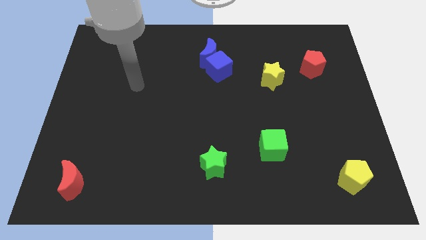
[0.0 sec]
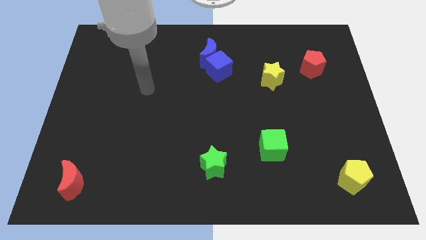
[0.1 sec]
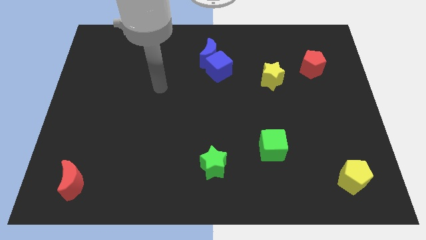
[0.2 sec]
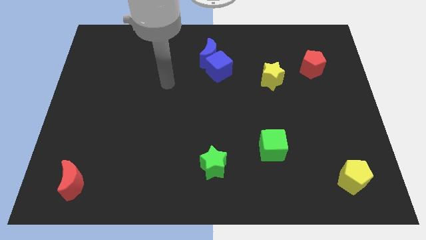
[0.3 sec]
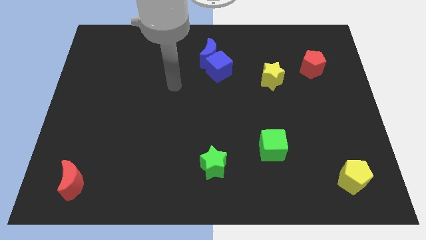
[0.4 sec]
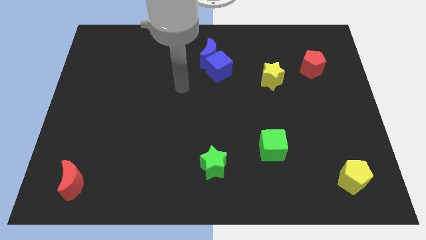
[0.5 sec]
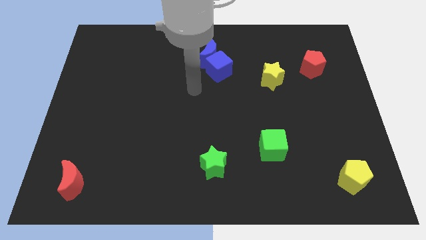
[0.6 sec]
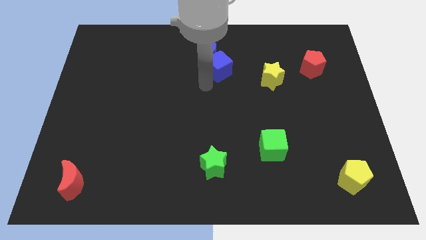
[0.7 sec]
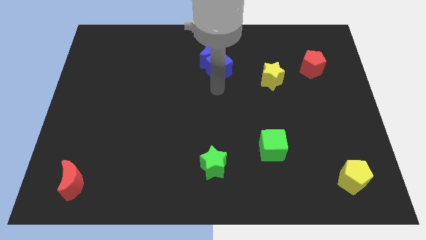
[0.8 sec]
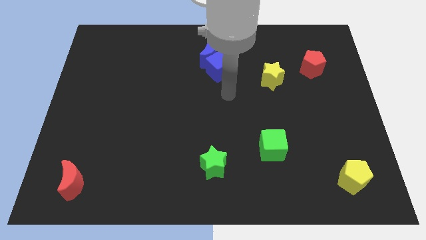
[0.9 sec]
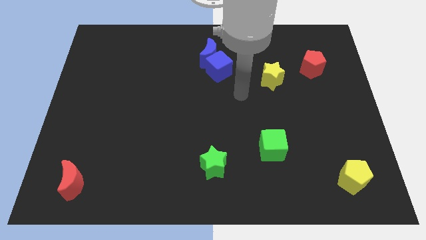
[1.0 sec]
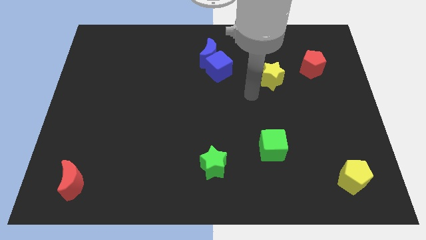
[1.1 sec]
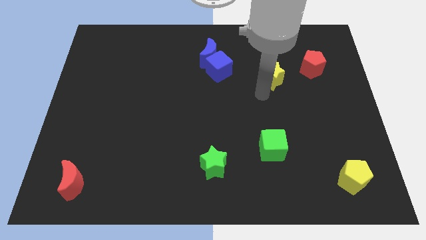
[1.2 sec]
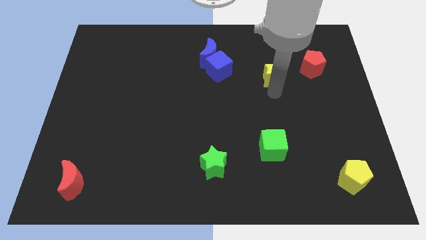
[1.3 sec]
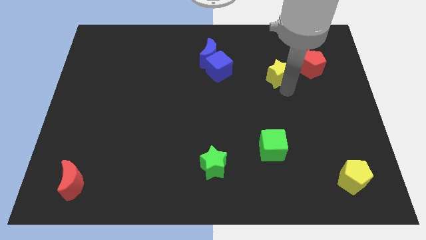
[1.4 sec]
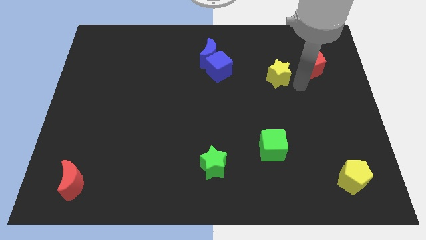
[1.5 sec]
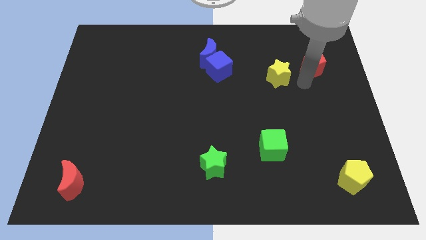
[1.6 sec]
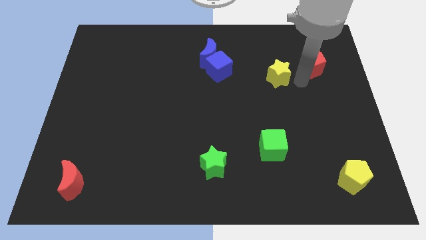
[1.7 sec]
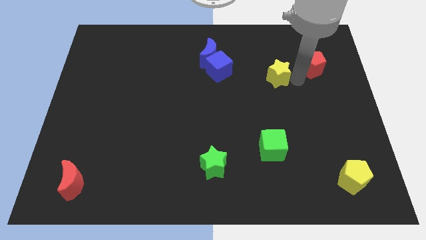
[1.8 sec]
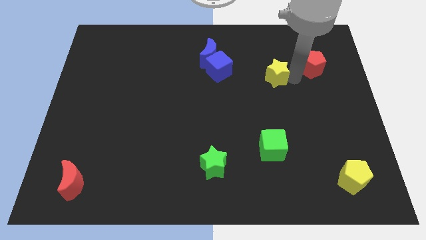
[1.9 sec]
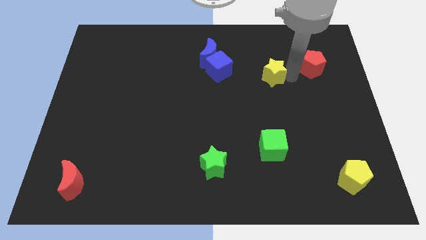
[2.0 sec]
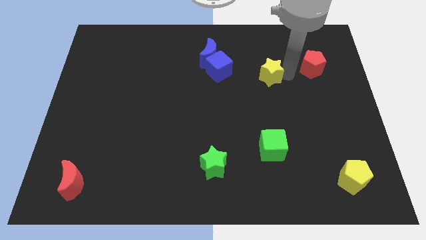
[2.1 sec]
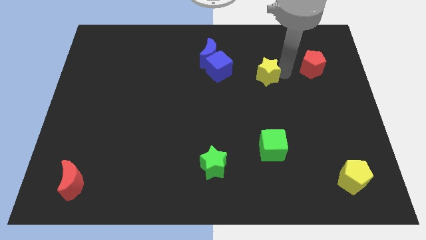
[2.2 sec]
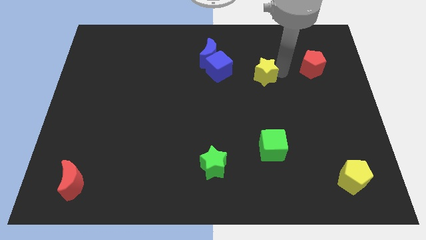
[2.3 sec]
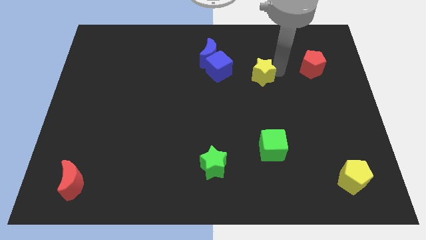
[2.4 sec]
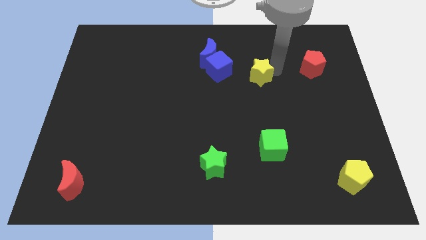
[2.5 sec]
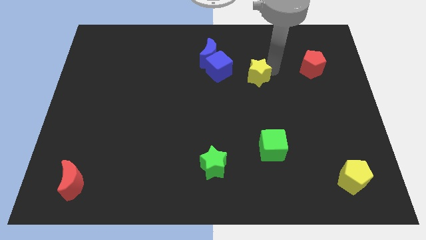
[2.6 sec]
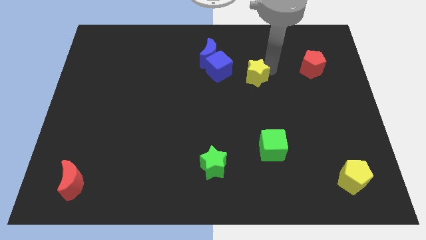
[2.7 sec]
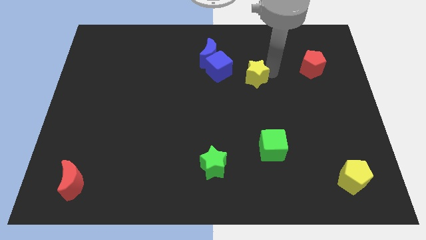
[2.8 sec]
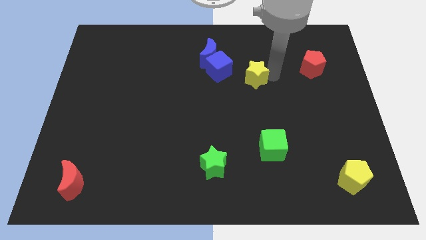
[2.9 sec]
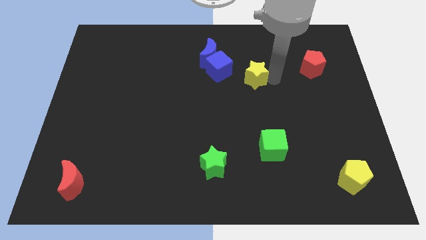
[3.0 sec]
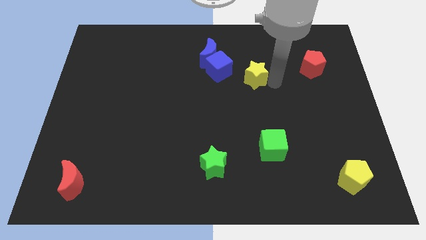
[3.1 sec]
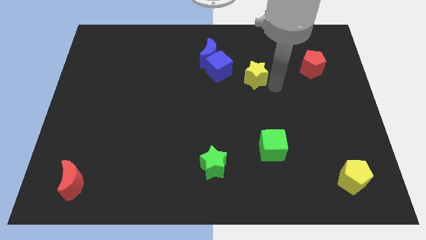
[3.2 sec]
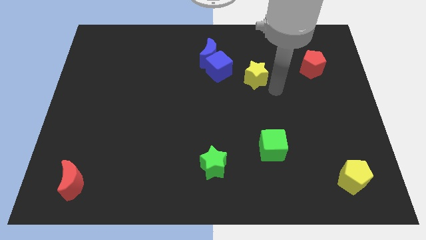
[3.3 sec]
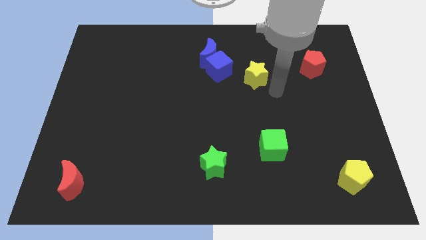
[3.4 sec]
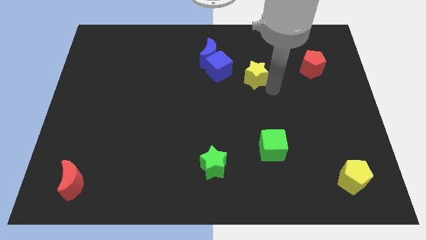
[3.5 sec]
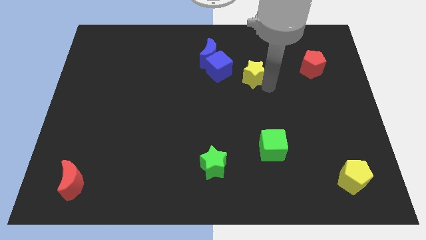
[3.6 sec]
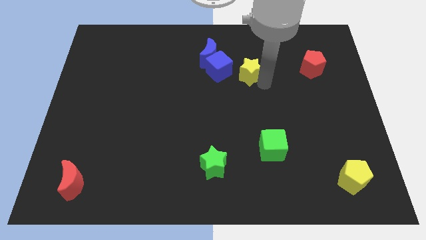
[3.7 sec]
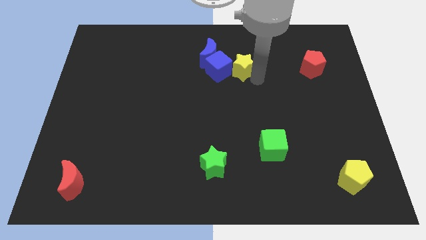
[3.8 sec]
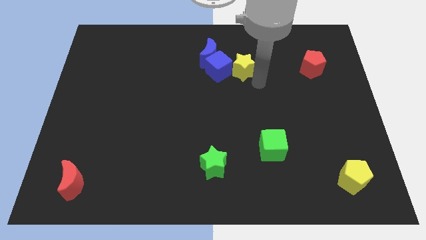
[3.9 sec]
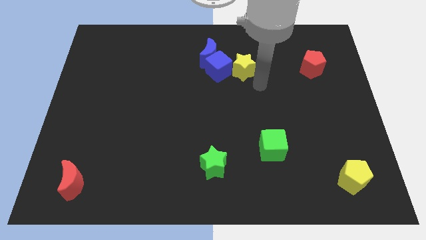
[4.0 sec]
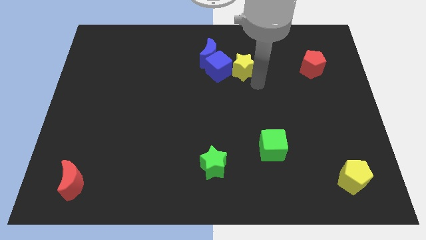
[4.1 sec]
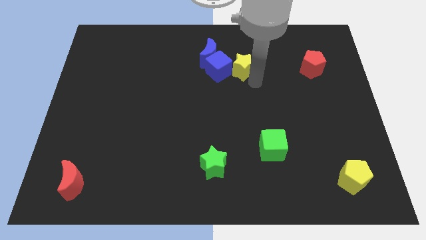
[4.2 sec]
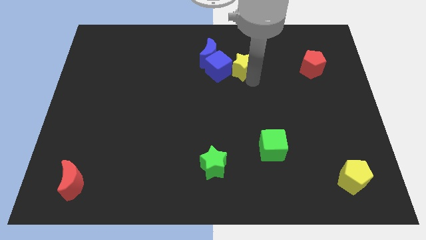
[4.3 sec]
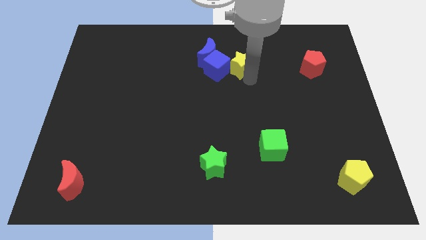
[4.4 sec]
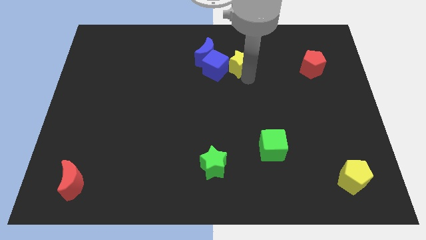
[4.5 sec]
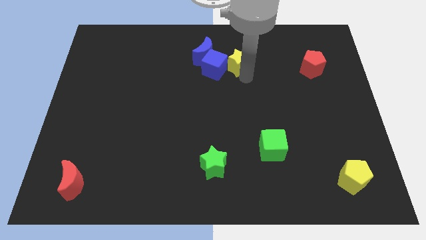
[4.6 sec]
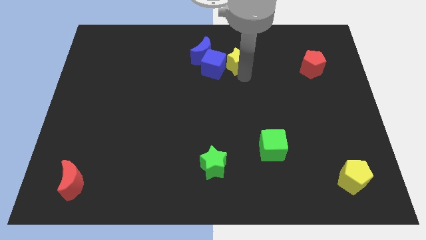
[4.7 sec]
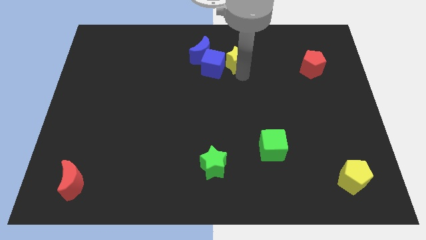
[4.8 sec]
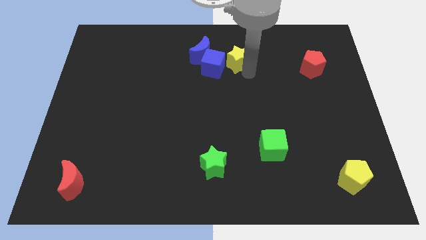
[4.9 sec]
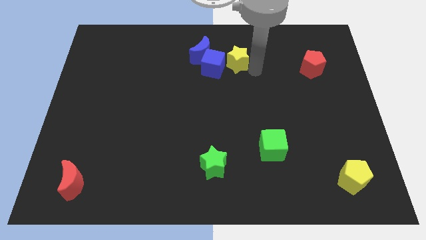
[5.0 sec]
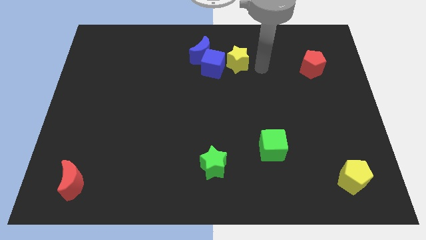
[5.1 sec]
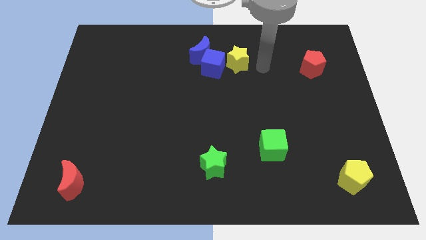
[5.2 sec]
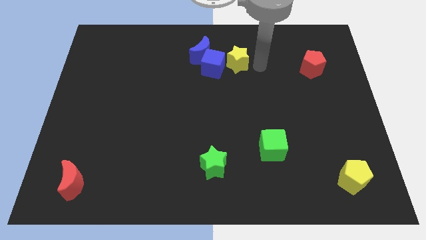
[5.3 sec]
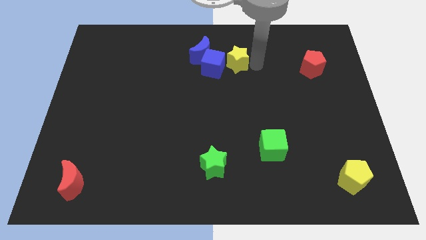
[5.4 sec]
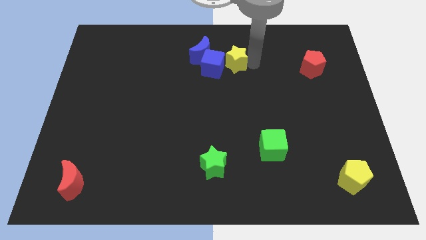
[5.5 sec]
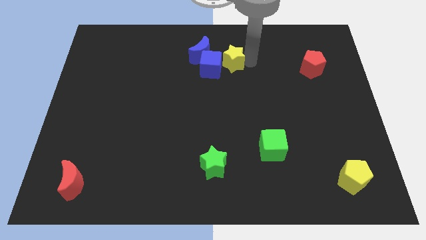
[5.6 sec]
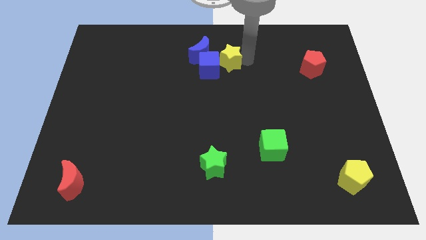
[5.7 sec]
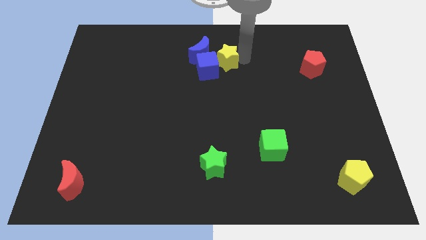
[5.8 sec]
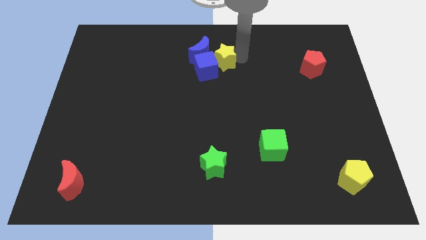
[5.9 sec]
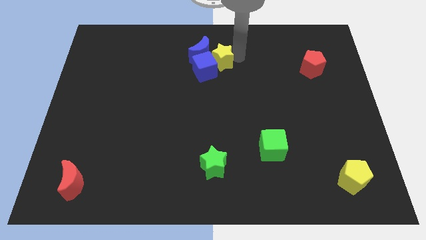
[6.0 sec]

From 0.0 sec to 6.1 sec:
slide the yellow star next to the blue moon
